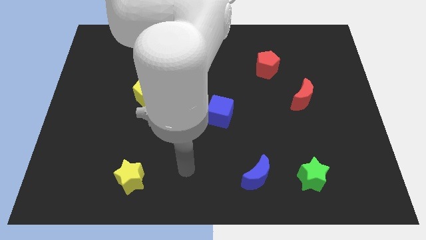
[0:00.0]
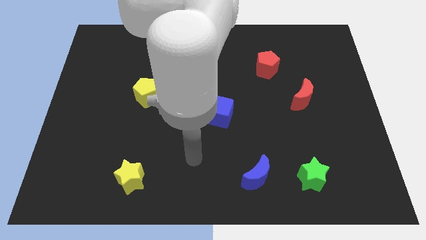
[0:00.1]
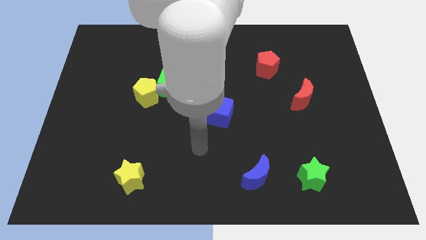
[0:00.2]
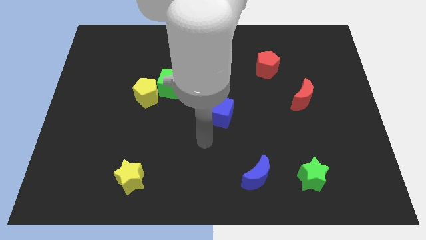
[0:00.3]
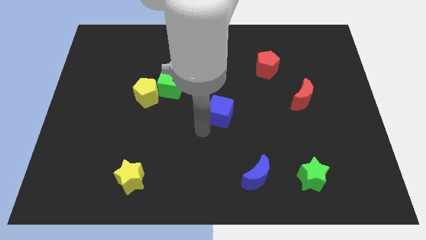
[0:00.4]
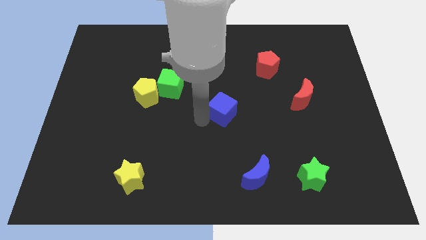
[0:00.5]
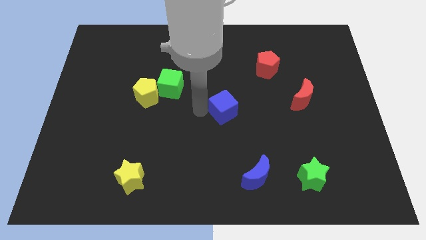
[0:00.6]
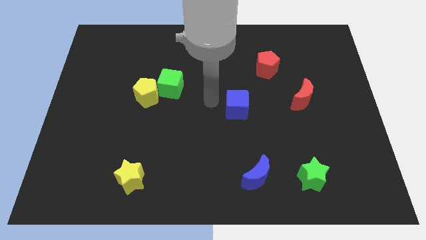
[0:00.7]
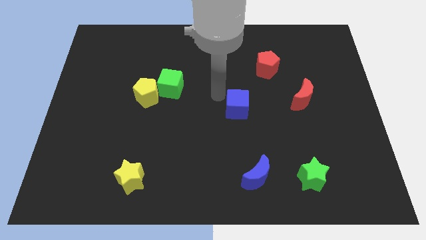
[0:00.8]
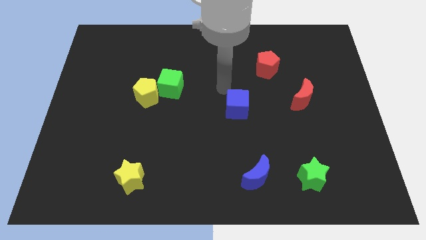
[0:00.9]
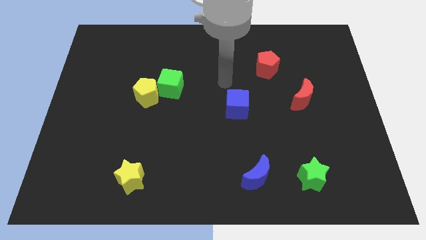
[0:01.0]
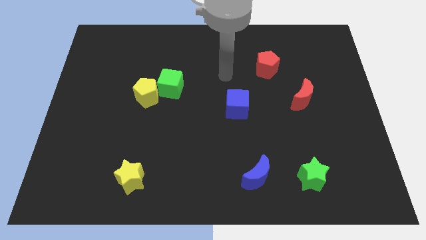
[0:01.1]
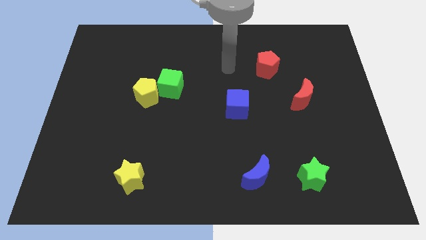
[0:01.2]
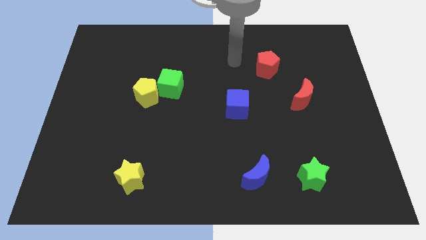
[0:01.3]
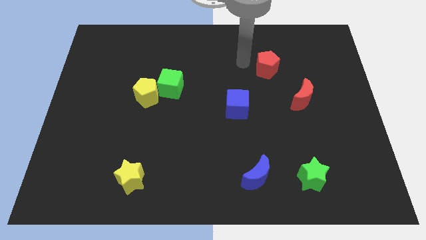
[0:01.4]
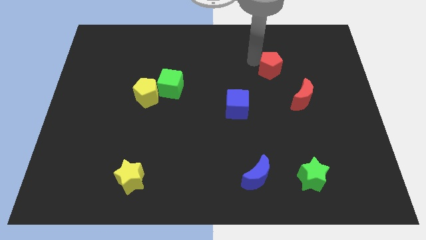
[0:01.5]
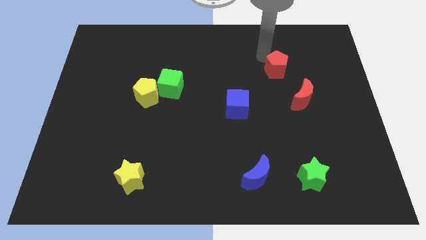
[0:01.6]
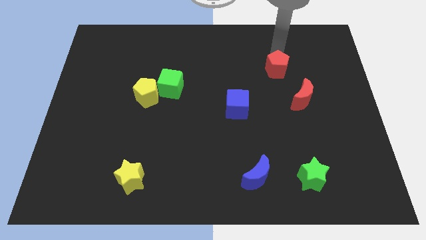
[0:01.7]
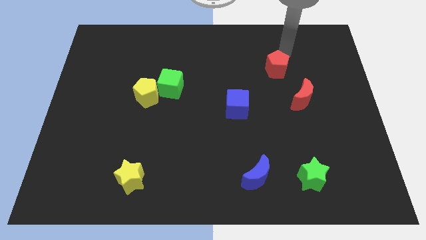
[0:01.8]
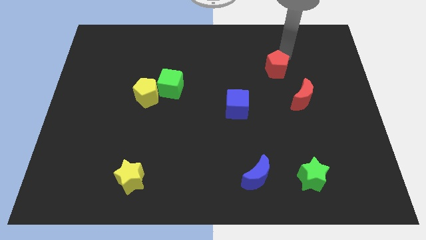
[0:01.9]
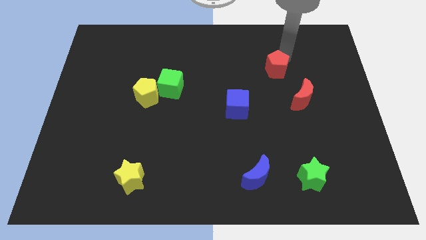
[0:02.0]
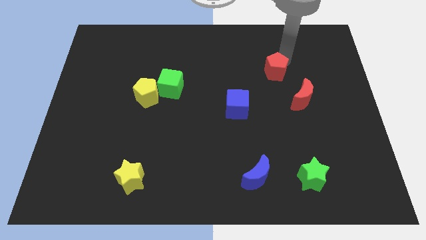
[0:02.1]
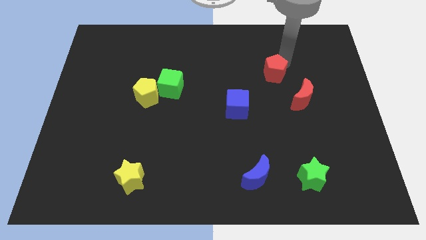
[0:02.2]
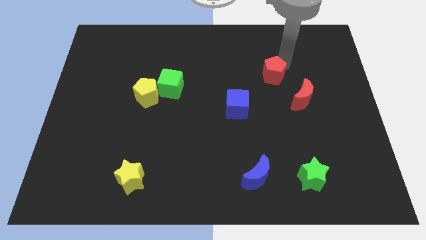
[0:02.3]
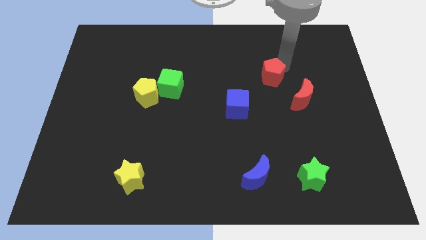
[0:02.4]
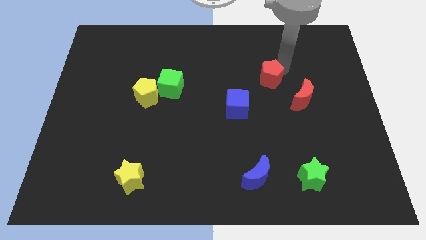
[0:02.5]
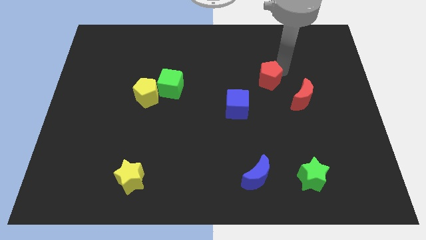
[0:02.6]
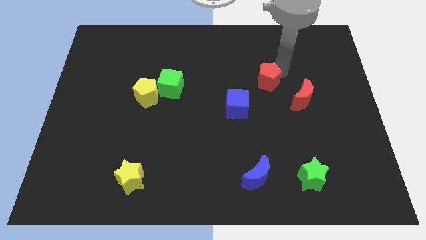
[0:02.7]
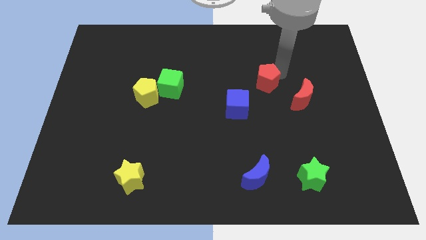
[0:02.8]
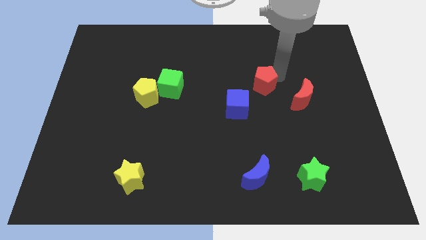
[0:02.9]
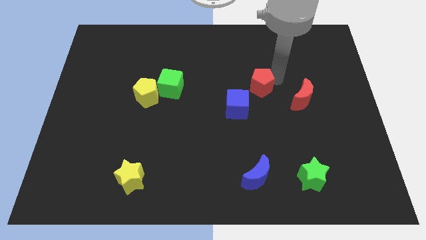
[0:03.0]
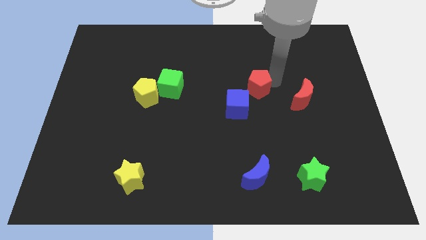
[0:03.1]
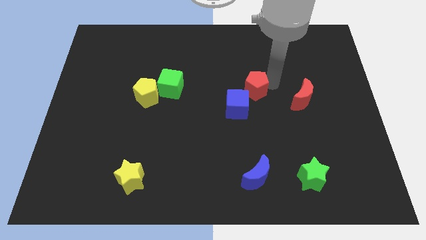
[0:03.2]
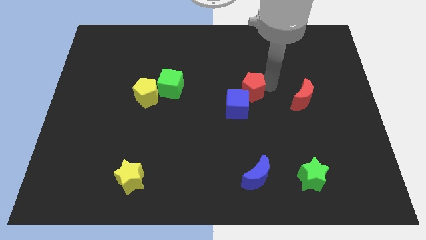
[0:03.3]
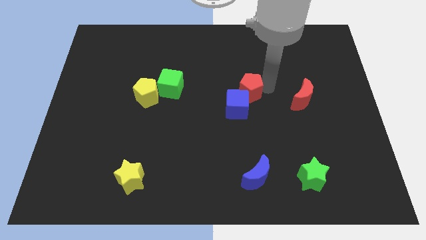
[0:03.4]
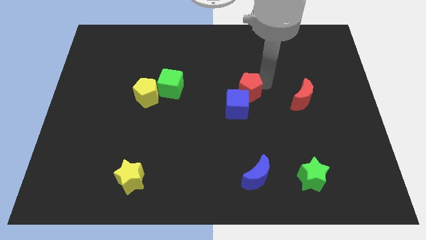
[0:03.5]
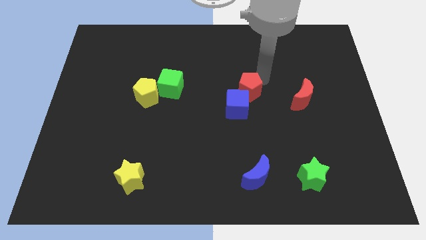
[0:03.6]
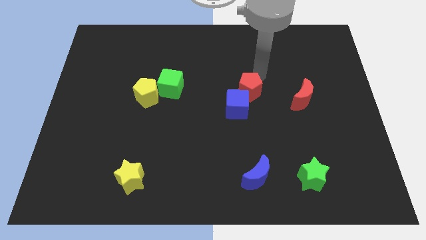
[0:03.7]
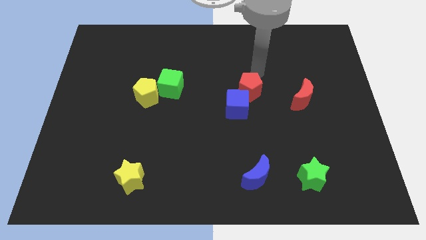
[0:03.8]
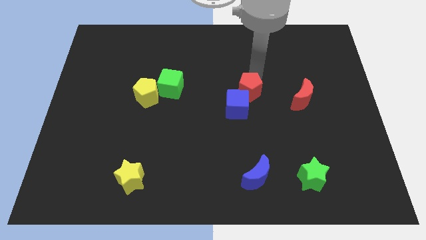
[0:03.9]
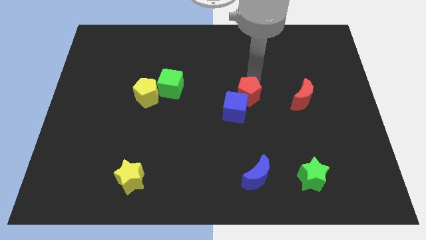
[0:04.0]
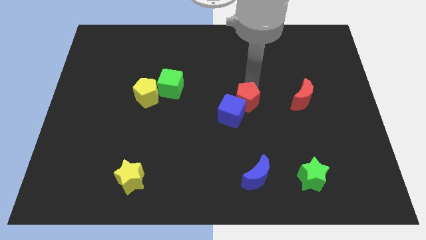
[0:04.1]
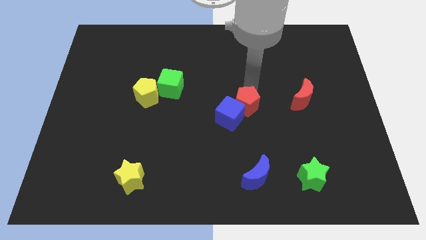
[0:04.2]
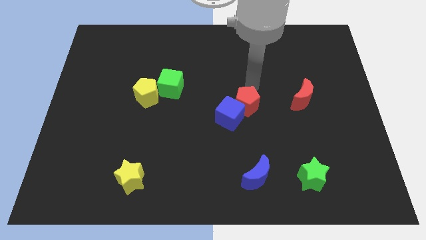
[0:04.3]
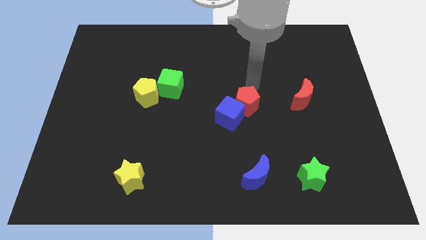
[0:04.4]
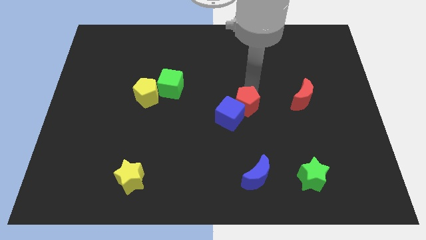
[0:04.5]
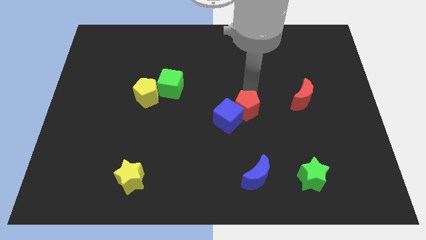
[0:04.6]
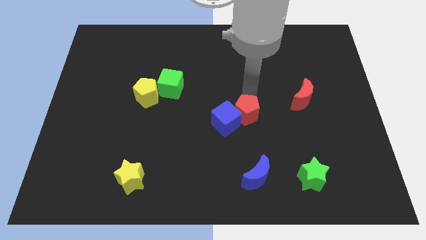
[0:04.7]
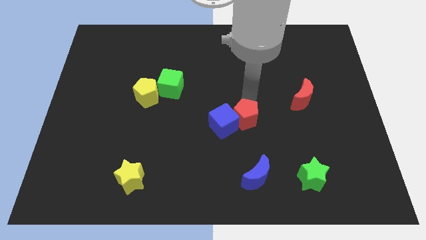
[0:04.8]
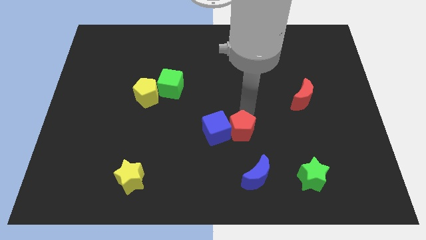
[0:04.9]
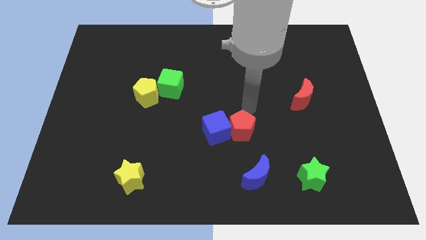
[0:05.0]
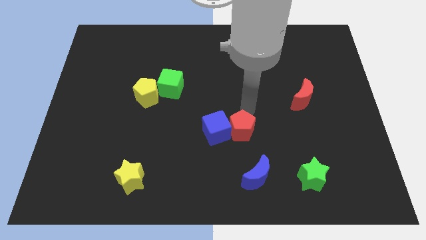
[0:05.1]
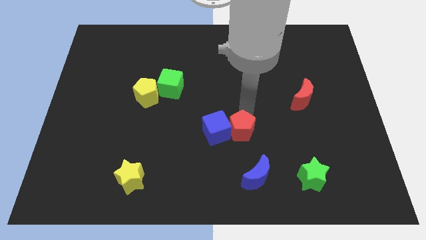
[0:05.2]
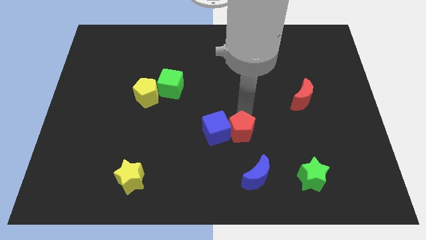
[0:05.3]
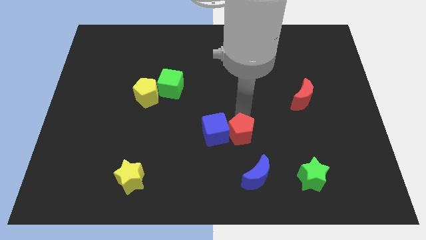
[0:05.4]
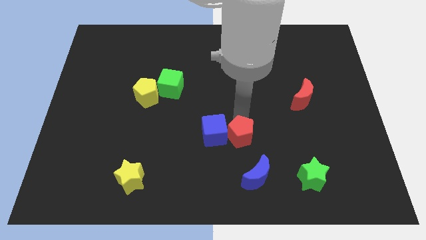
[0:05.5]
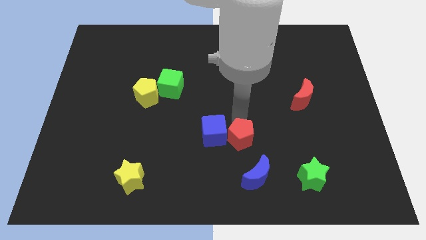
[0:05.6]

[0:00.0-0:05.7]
push the red pentagon to the top left of the blue moon

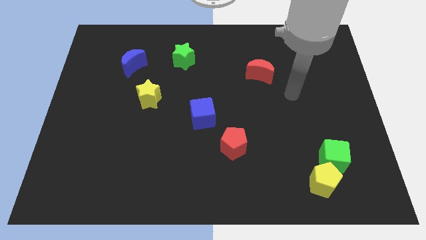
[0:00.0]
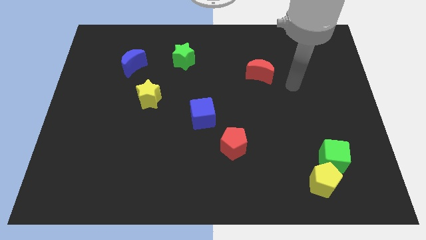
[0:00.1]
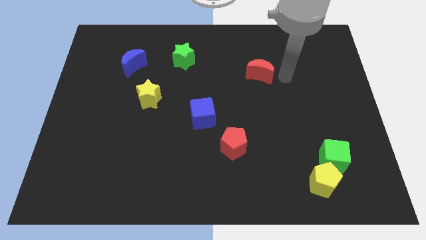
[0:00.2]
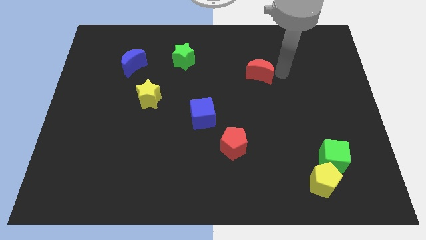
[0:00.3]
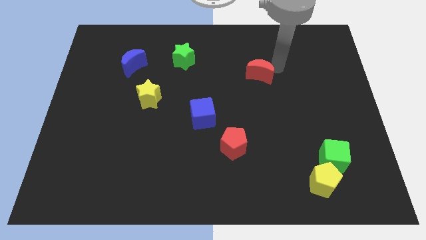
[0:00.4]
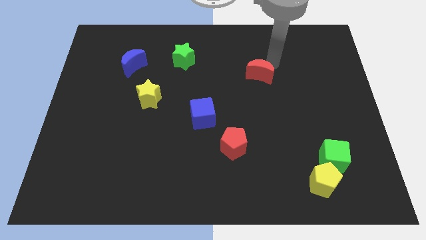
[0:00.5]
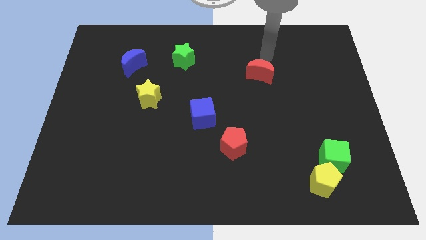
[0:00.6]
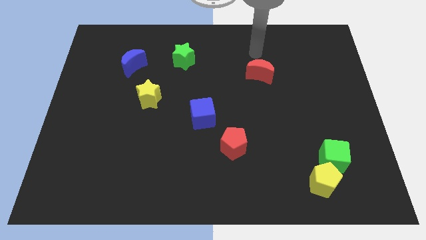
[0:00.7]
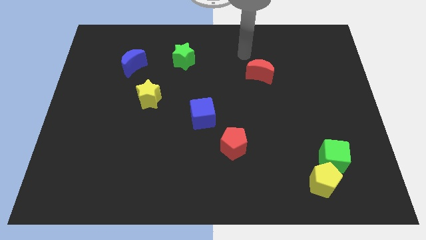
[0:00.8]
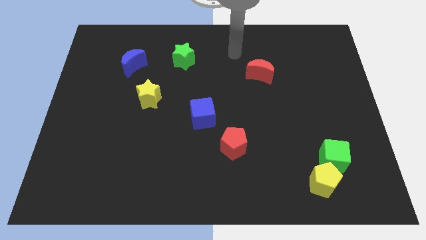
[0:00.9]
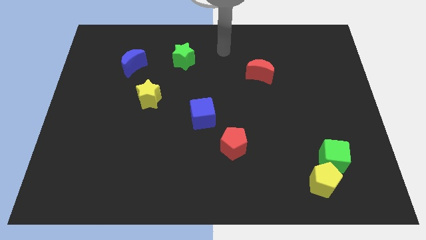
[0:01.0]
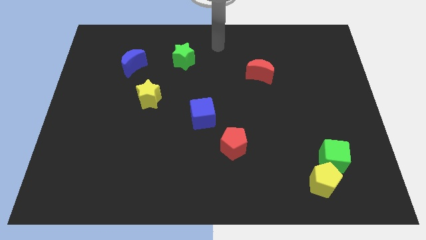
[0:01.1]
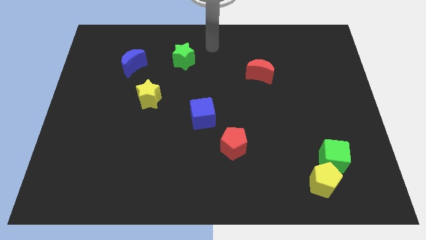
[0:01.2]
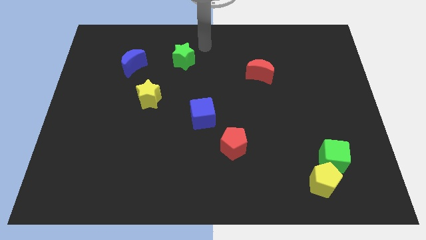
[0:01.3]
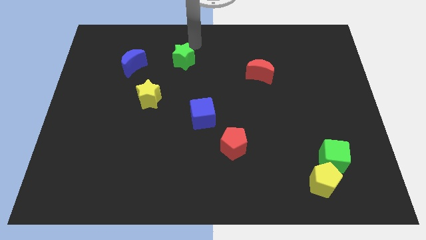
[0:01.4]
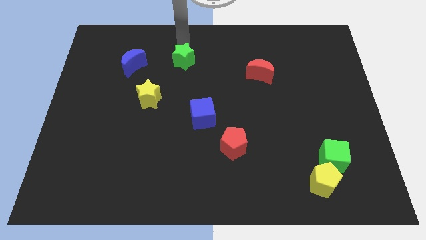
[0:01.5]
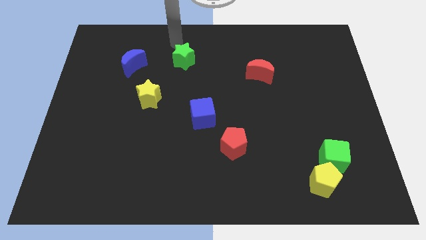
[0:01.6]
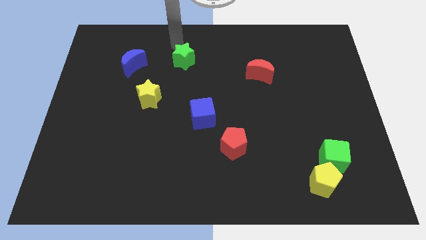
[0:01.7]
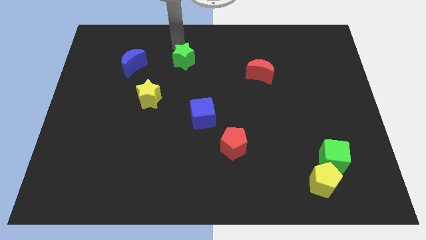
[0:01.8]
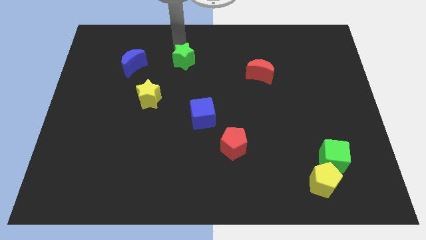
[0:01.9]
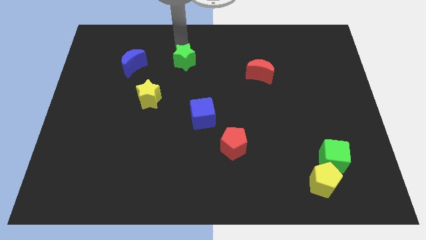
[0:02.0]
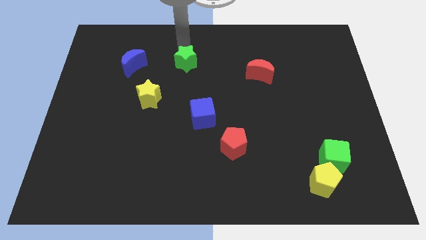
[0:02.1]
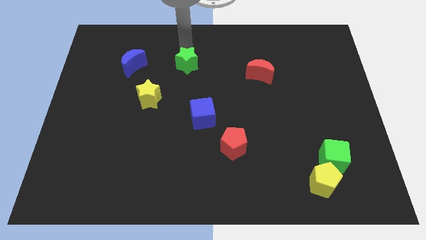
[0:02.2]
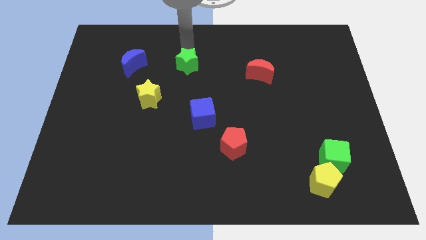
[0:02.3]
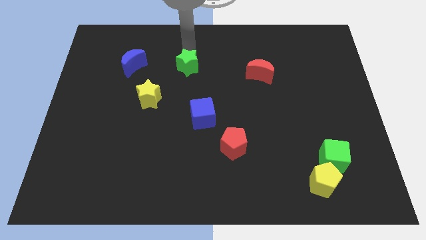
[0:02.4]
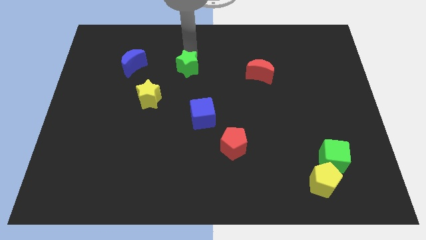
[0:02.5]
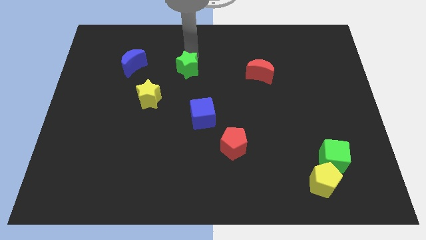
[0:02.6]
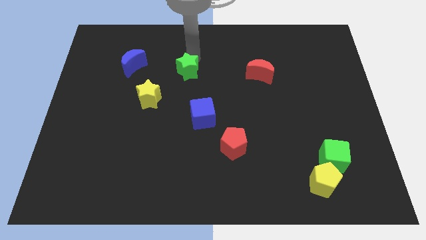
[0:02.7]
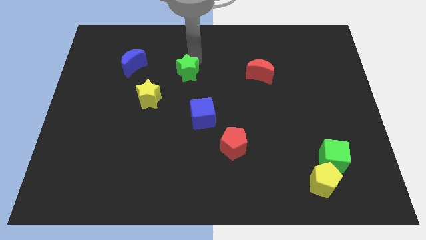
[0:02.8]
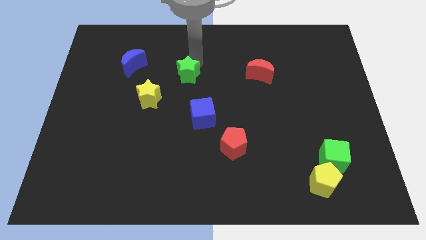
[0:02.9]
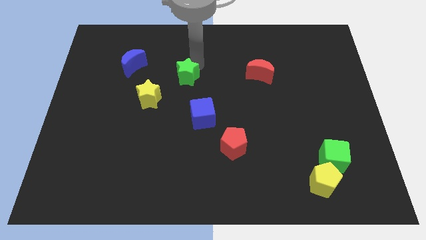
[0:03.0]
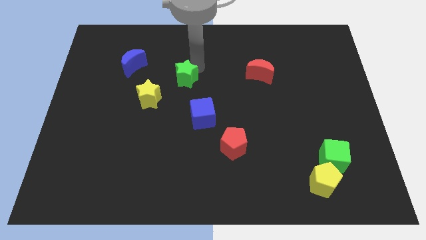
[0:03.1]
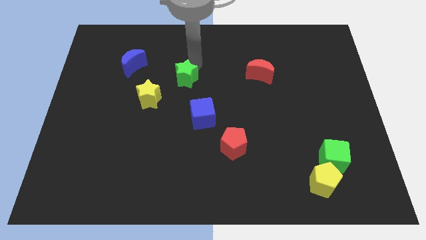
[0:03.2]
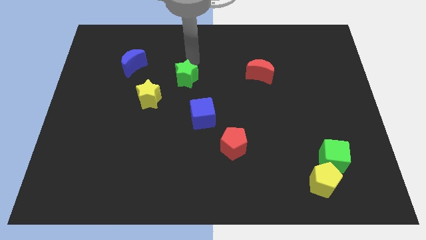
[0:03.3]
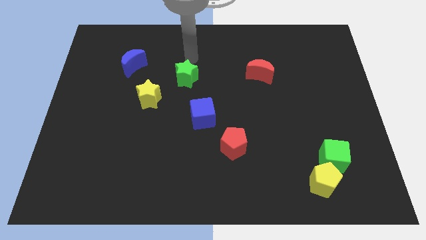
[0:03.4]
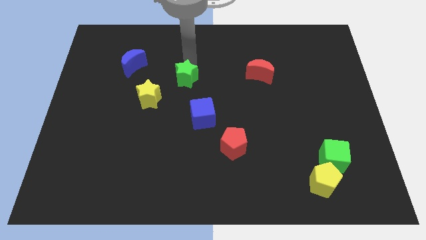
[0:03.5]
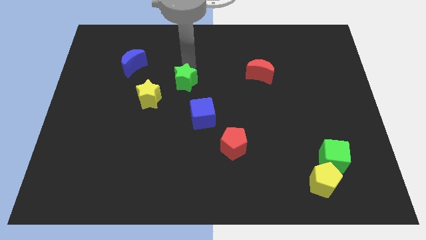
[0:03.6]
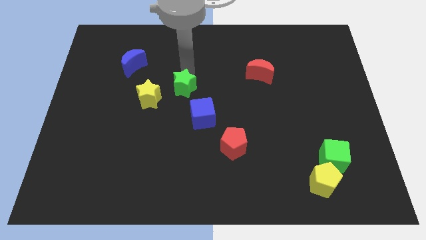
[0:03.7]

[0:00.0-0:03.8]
put the green star to the top left side of the blue cube
